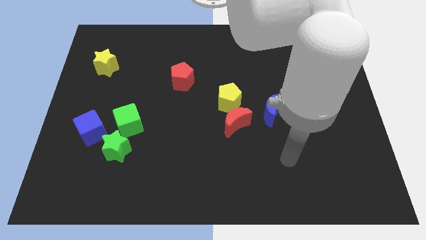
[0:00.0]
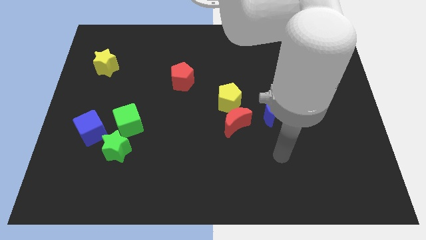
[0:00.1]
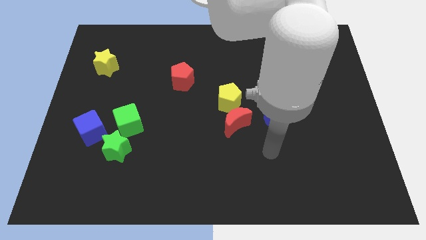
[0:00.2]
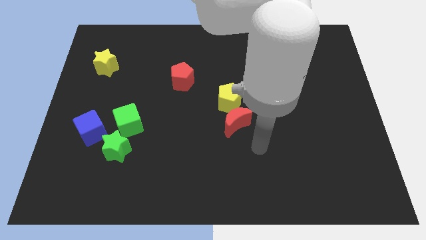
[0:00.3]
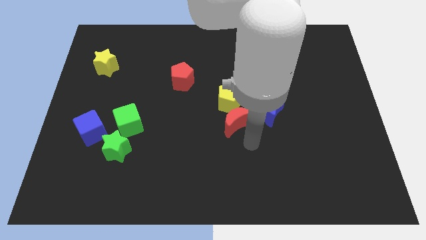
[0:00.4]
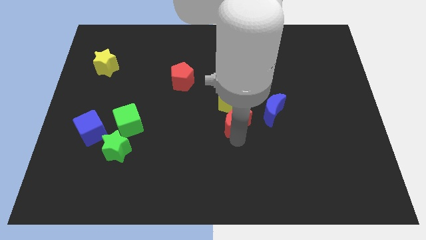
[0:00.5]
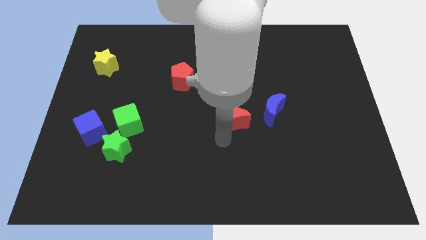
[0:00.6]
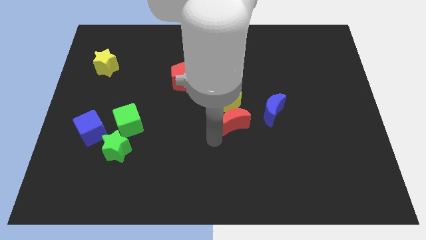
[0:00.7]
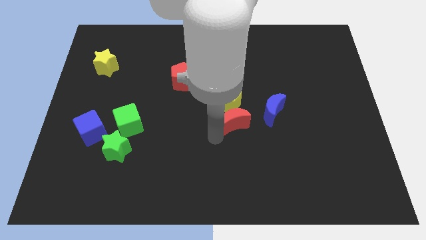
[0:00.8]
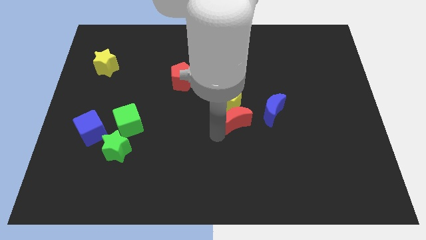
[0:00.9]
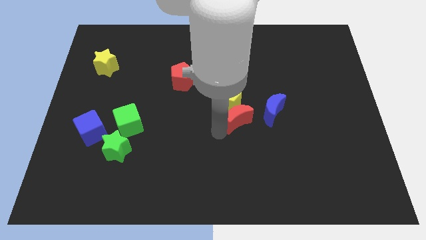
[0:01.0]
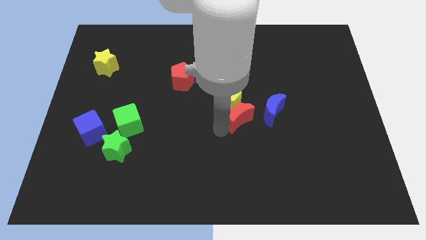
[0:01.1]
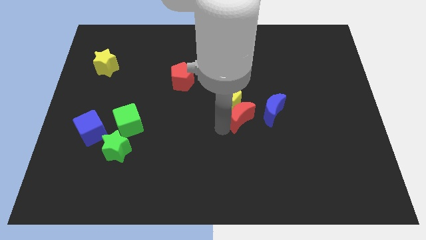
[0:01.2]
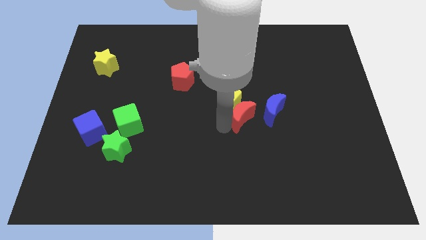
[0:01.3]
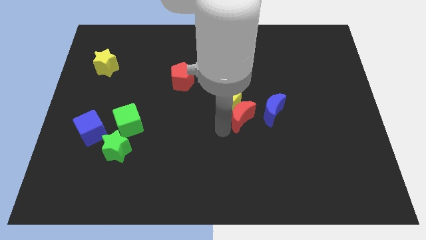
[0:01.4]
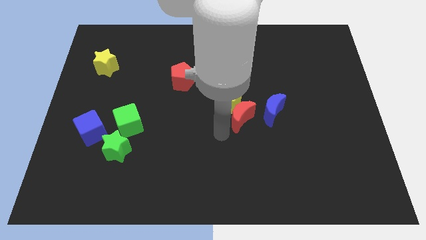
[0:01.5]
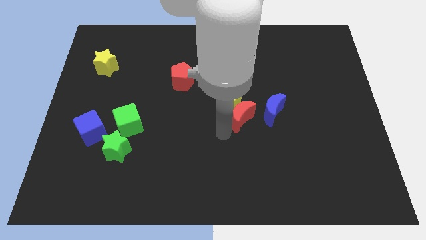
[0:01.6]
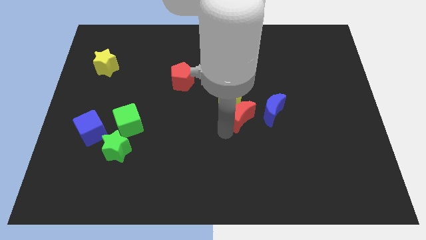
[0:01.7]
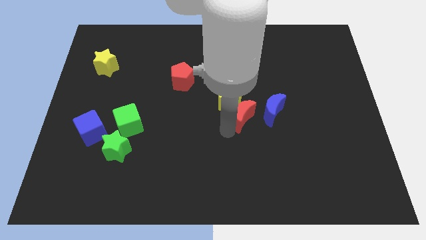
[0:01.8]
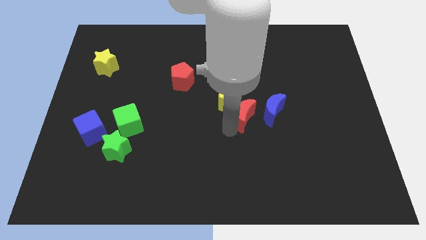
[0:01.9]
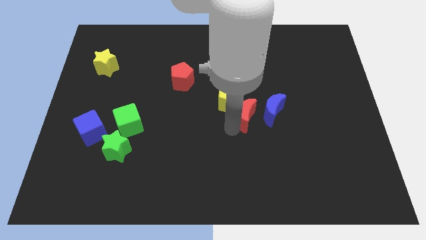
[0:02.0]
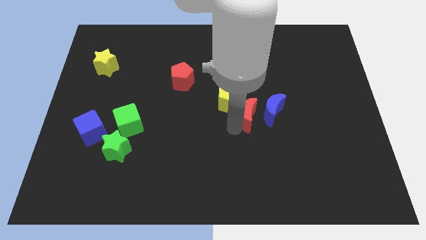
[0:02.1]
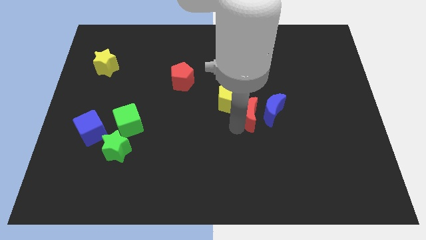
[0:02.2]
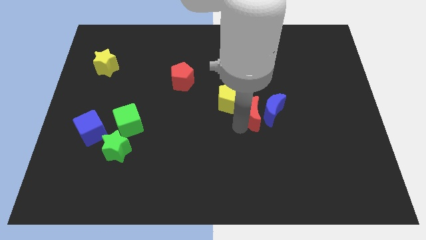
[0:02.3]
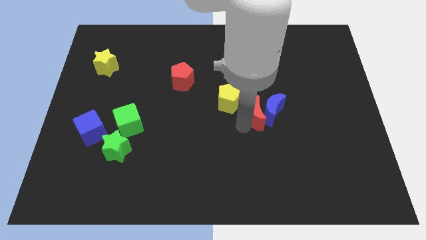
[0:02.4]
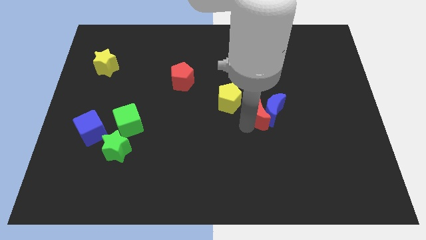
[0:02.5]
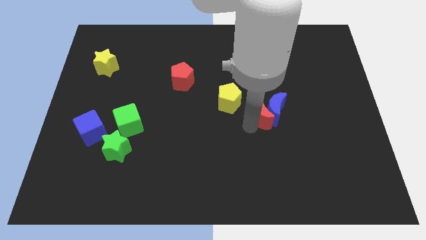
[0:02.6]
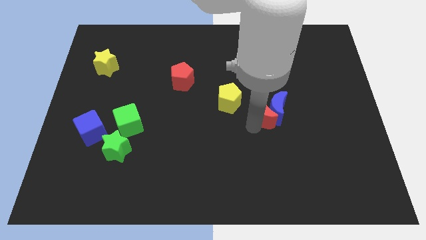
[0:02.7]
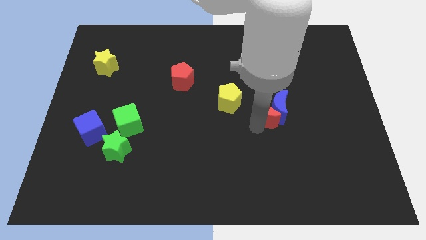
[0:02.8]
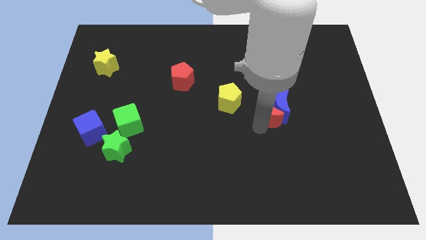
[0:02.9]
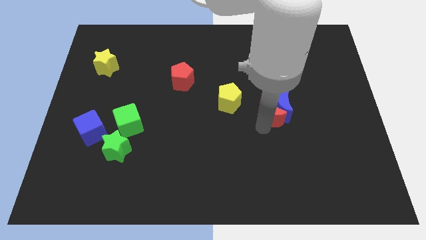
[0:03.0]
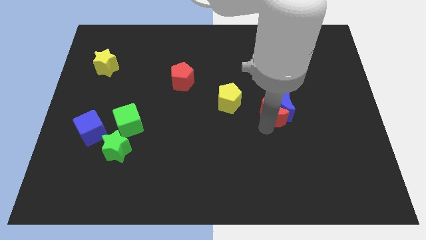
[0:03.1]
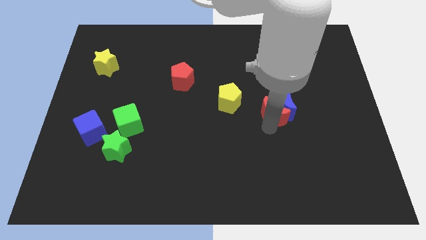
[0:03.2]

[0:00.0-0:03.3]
slightly move the red moon upwards and then right

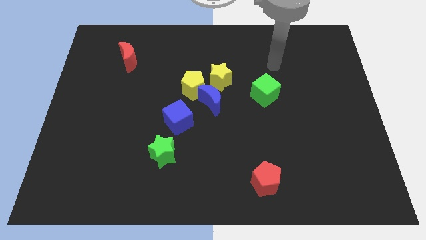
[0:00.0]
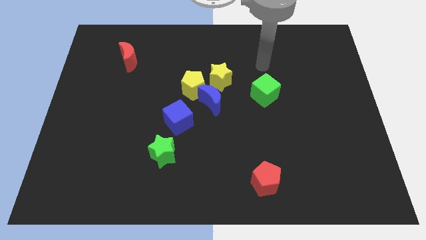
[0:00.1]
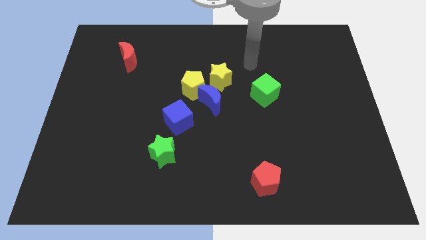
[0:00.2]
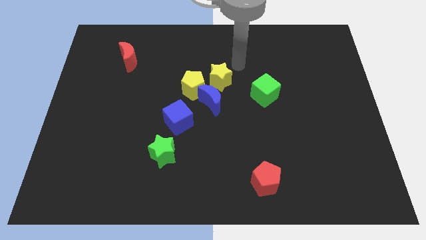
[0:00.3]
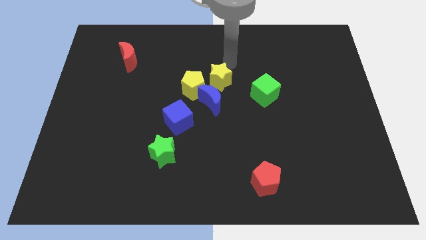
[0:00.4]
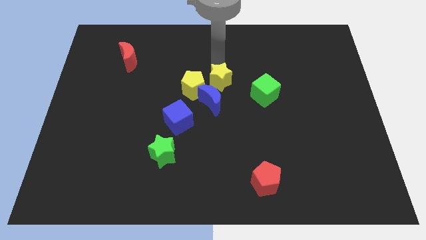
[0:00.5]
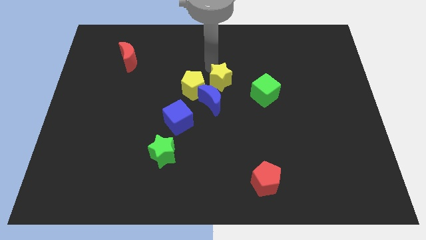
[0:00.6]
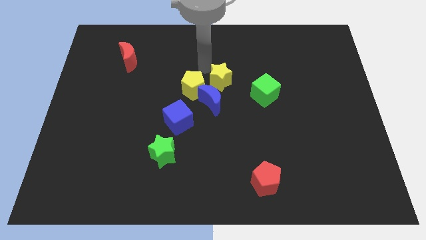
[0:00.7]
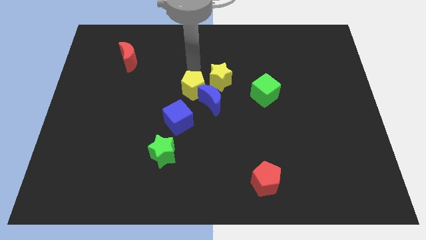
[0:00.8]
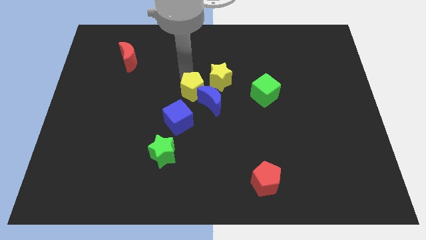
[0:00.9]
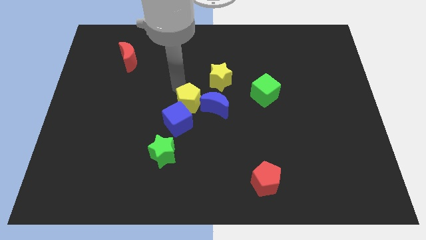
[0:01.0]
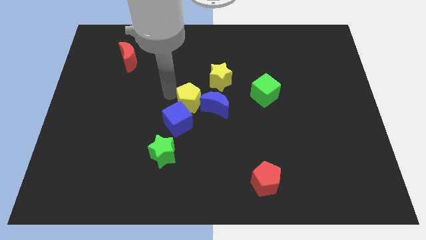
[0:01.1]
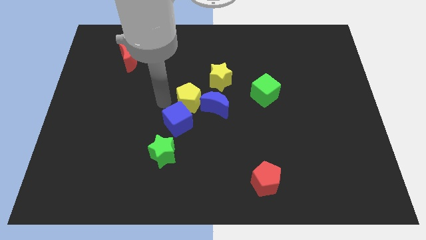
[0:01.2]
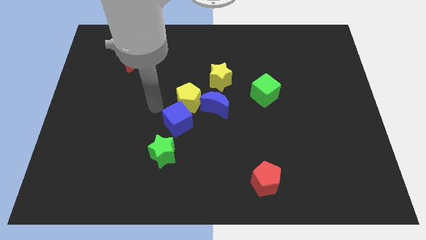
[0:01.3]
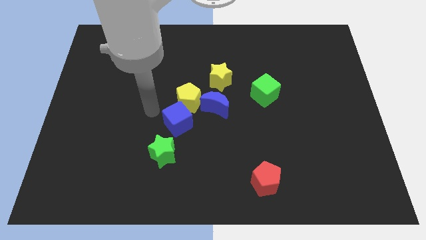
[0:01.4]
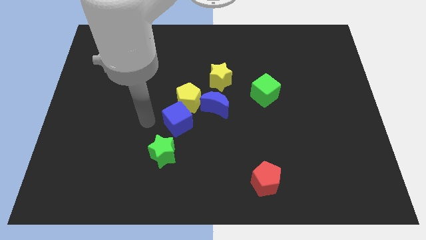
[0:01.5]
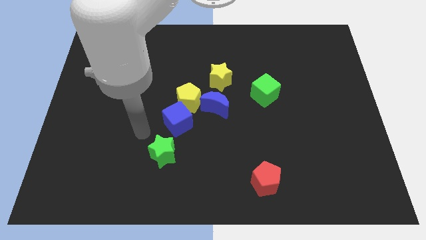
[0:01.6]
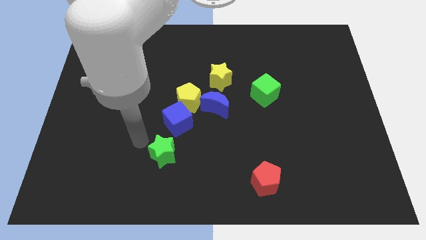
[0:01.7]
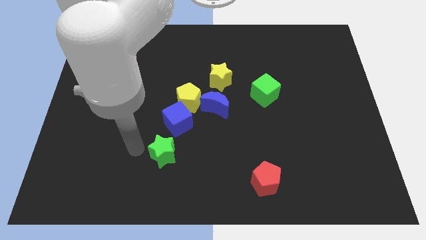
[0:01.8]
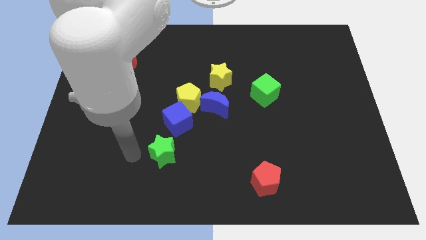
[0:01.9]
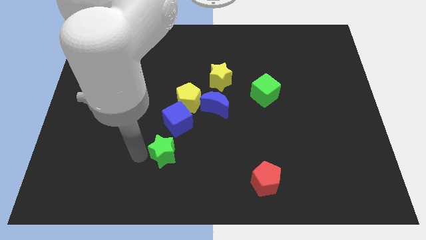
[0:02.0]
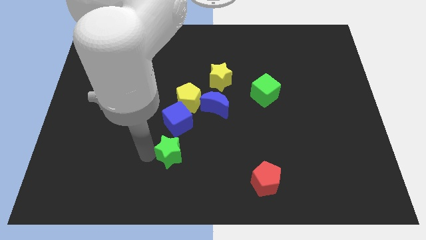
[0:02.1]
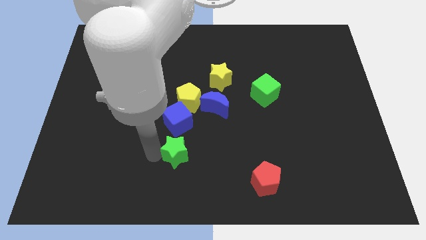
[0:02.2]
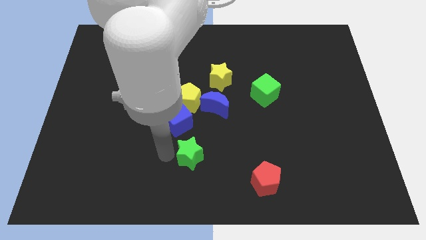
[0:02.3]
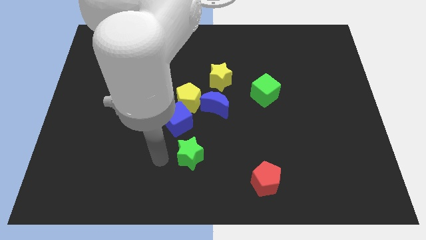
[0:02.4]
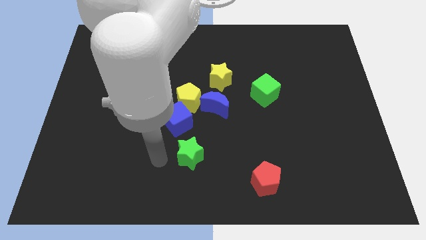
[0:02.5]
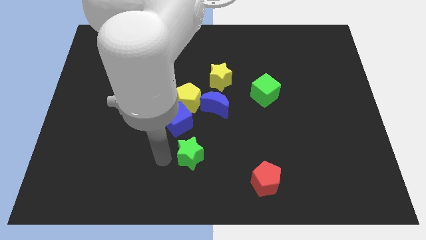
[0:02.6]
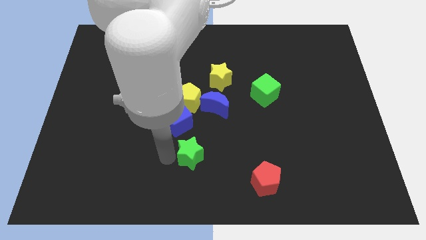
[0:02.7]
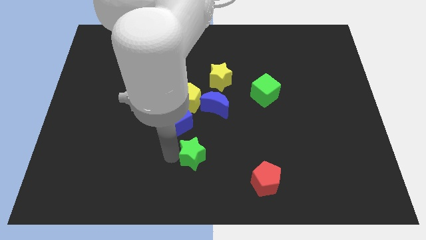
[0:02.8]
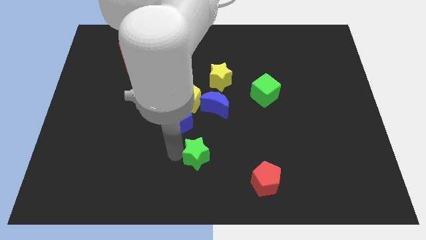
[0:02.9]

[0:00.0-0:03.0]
move the green star a bit right

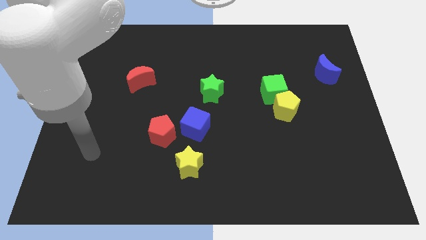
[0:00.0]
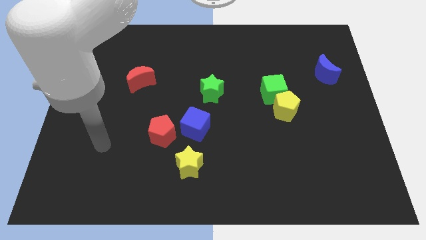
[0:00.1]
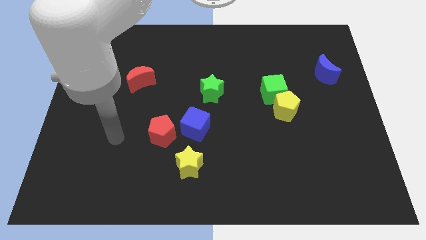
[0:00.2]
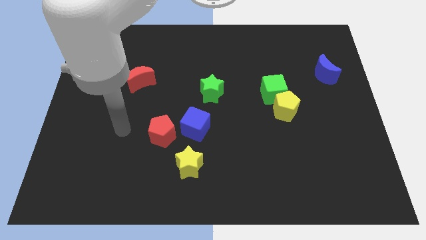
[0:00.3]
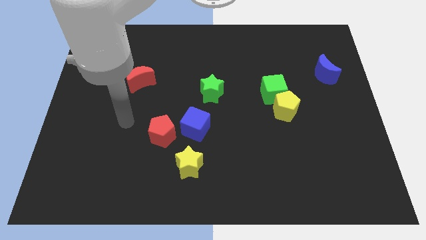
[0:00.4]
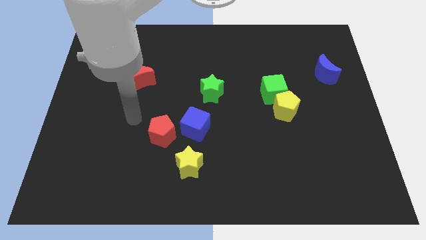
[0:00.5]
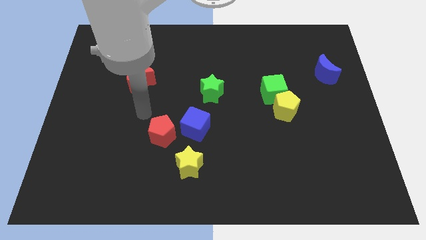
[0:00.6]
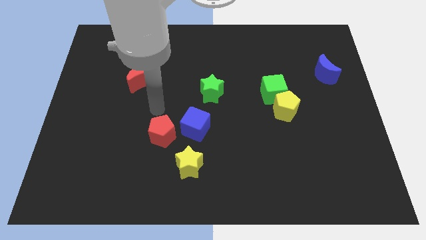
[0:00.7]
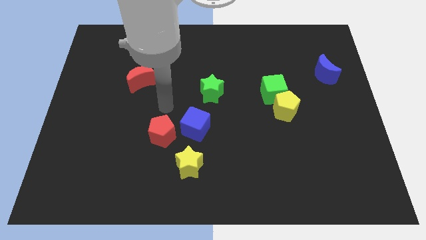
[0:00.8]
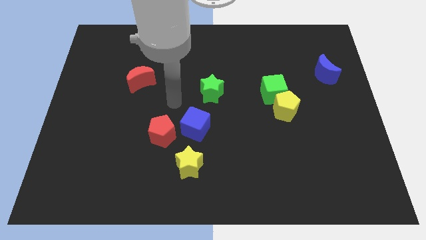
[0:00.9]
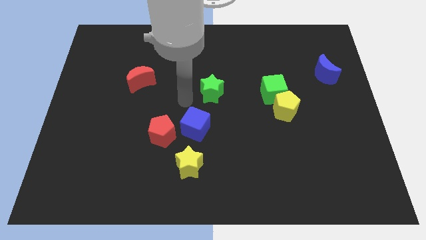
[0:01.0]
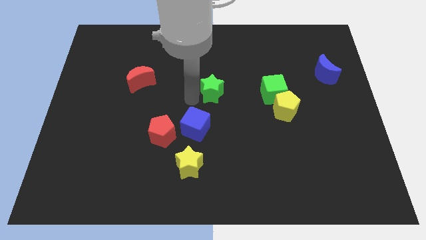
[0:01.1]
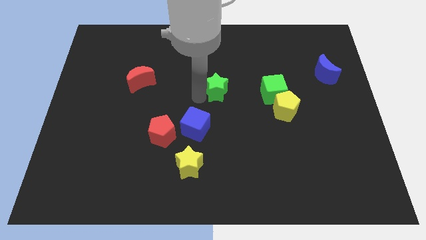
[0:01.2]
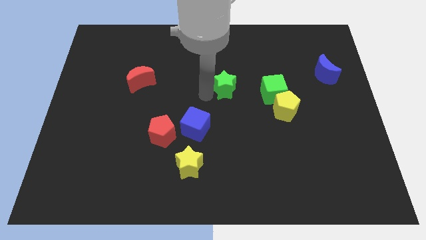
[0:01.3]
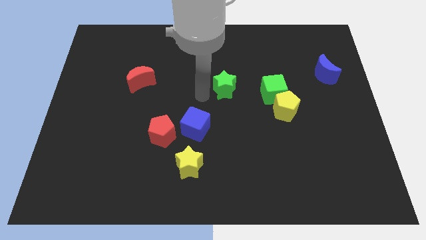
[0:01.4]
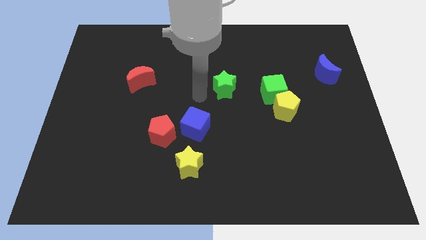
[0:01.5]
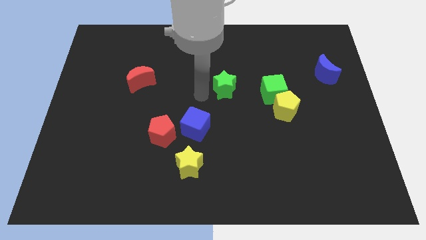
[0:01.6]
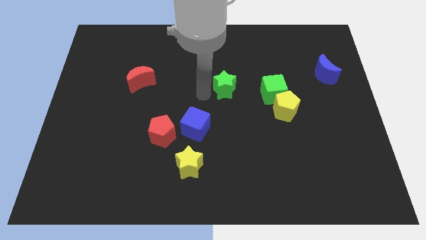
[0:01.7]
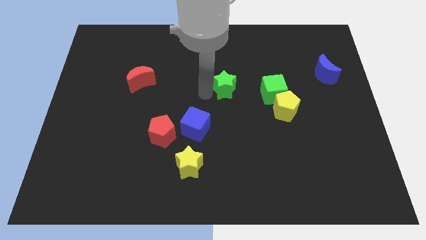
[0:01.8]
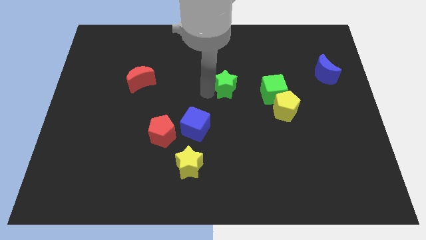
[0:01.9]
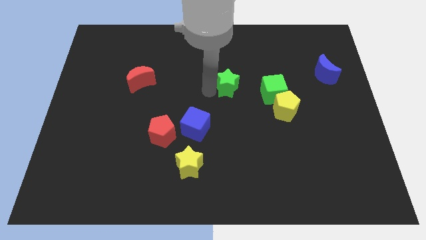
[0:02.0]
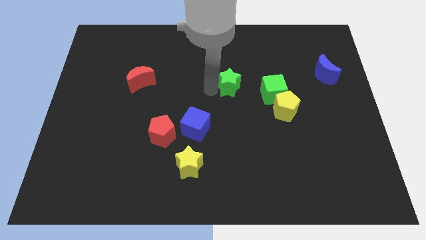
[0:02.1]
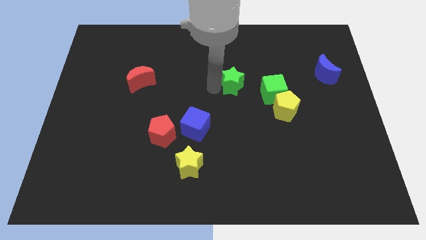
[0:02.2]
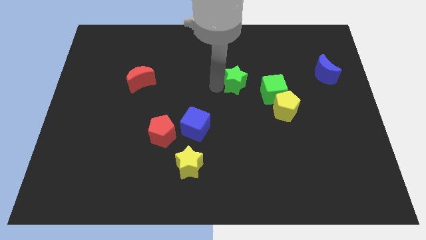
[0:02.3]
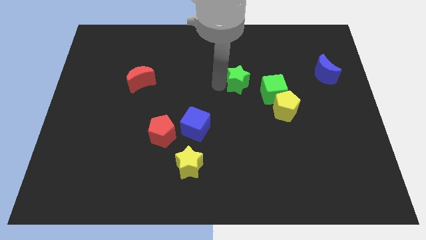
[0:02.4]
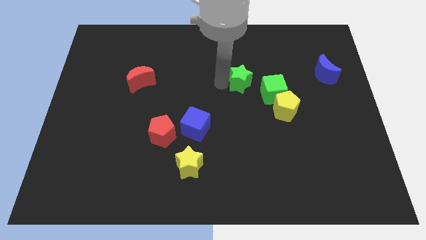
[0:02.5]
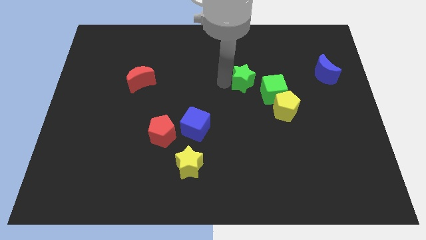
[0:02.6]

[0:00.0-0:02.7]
slide the green star right a bit
